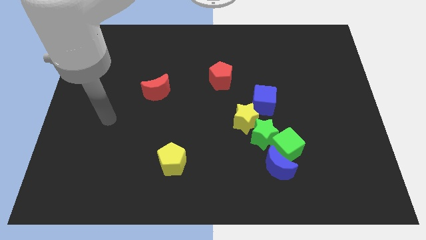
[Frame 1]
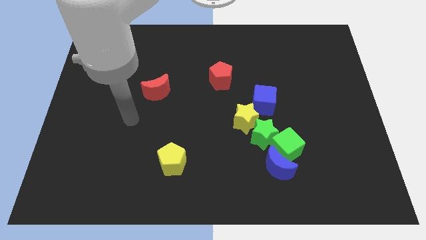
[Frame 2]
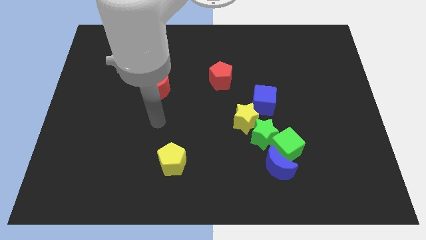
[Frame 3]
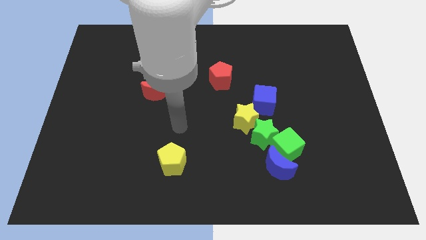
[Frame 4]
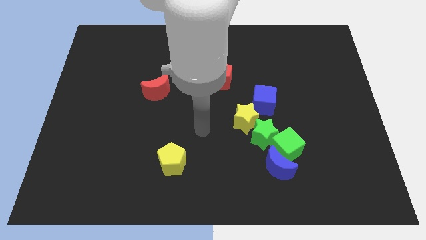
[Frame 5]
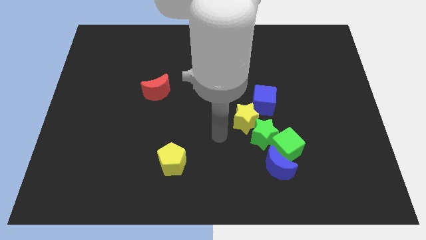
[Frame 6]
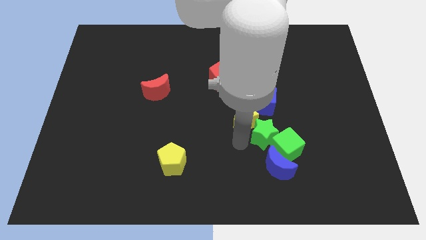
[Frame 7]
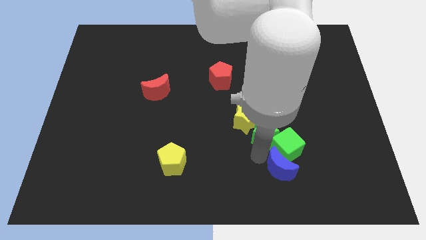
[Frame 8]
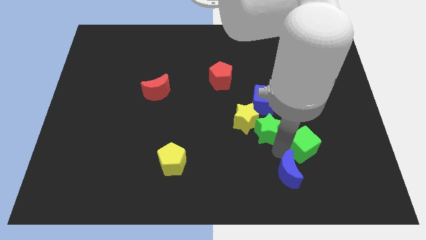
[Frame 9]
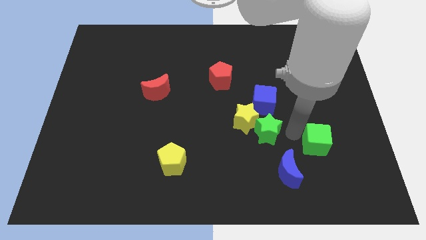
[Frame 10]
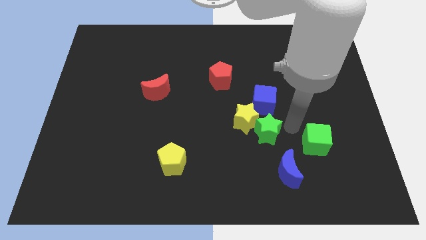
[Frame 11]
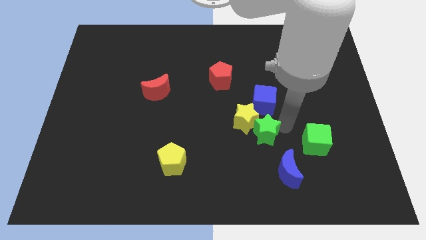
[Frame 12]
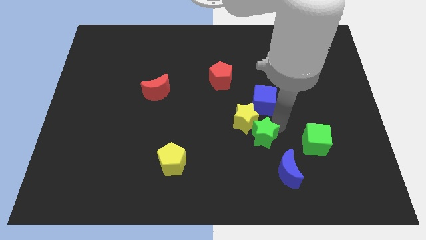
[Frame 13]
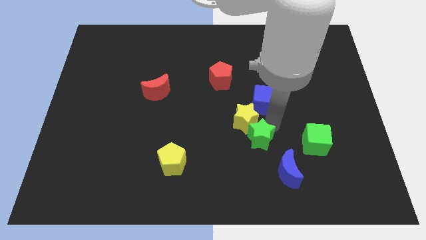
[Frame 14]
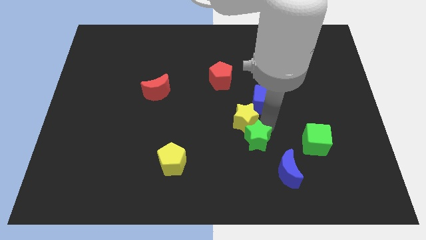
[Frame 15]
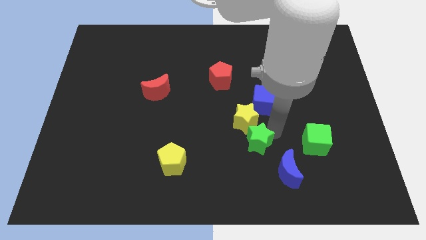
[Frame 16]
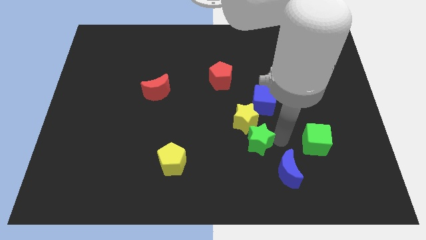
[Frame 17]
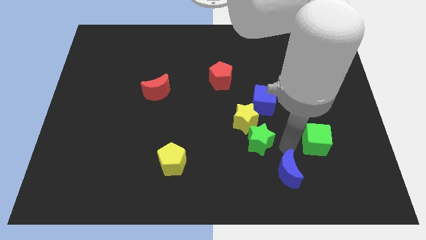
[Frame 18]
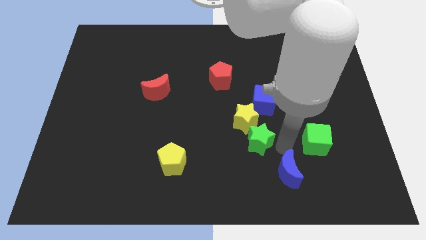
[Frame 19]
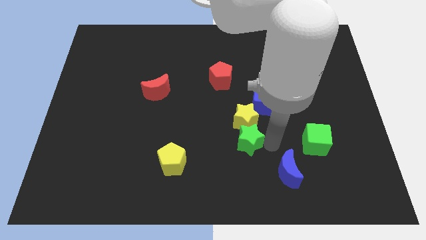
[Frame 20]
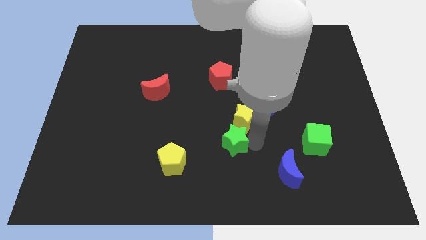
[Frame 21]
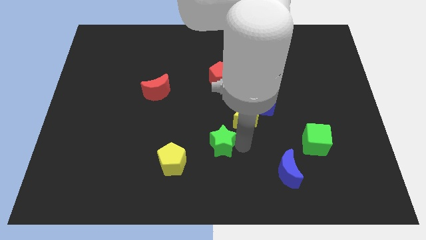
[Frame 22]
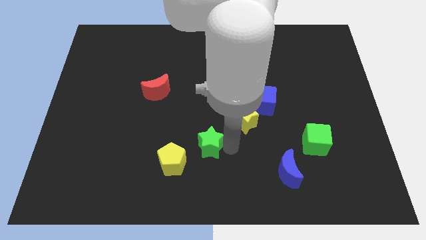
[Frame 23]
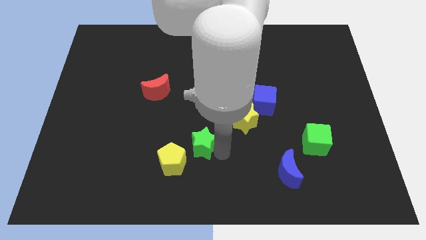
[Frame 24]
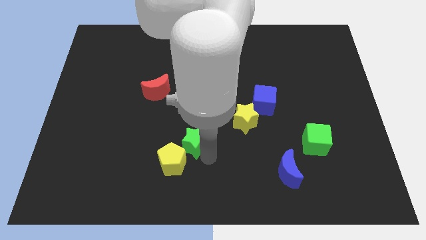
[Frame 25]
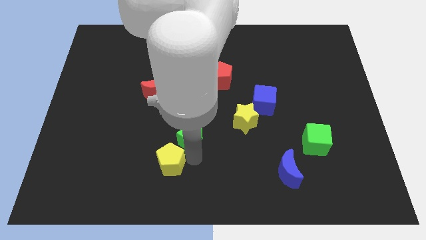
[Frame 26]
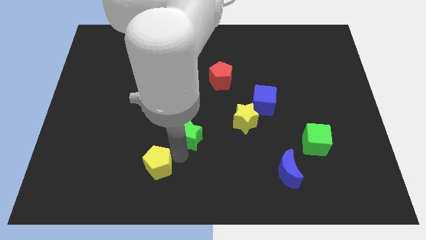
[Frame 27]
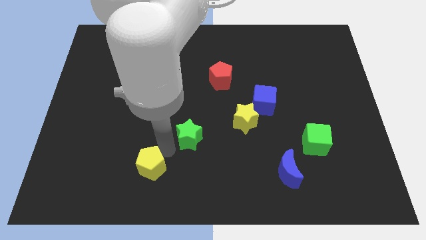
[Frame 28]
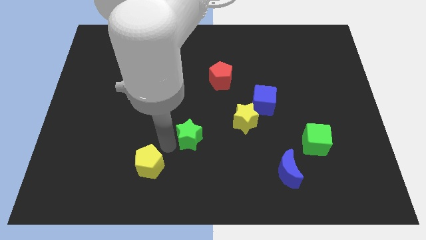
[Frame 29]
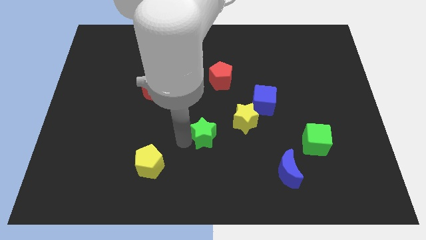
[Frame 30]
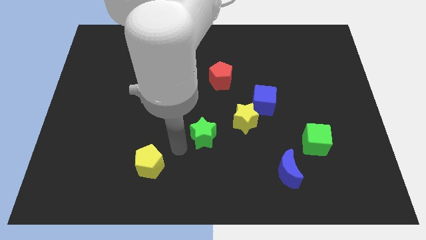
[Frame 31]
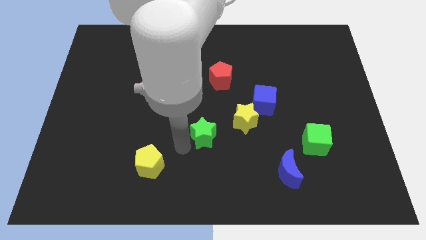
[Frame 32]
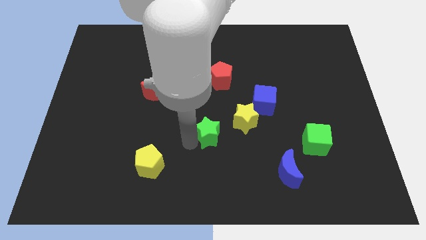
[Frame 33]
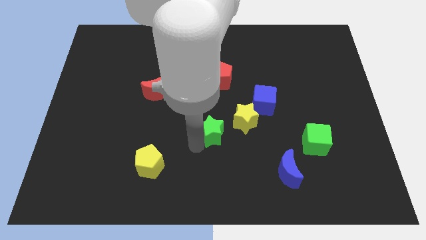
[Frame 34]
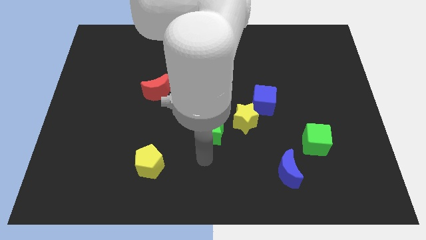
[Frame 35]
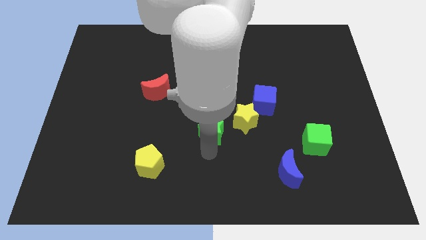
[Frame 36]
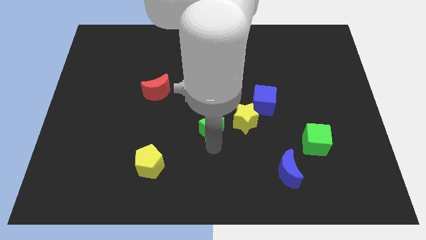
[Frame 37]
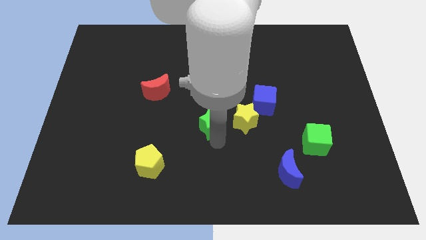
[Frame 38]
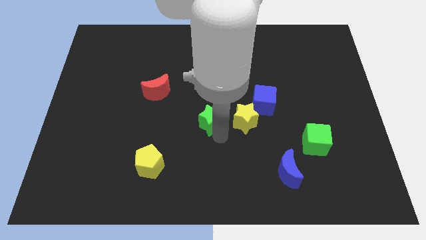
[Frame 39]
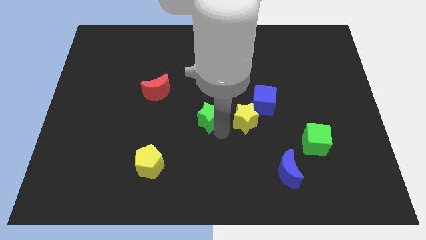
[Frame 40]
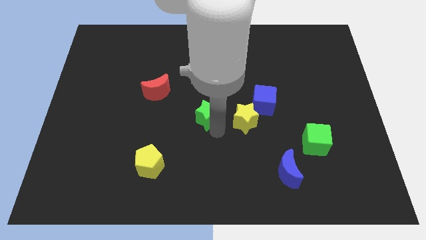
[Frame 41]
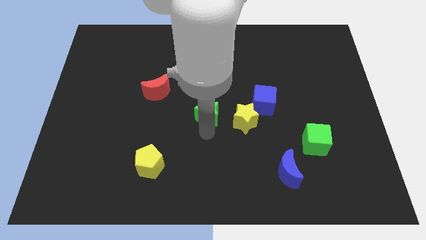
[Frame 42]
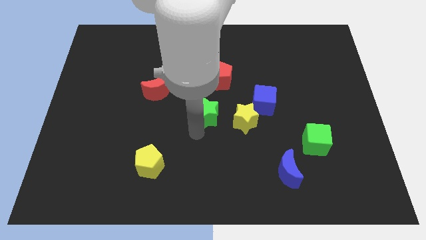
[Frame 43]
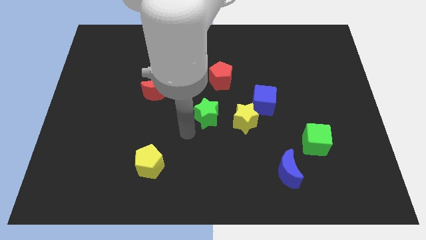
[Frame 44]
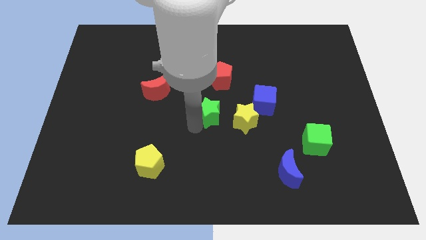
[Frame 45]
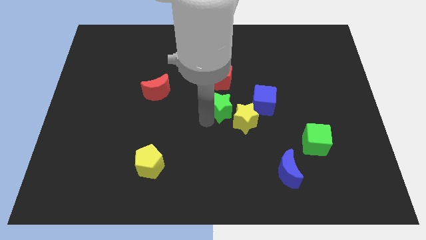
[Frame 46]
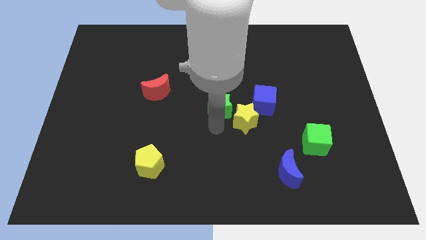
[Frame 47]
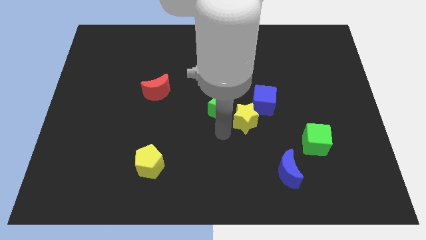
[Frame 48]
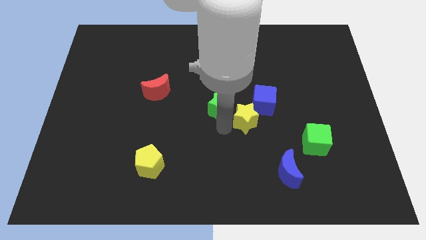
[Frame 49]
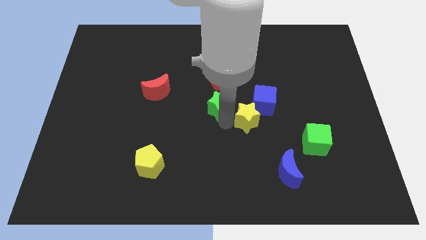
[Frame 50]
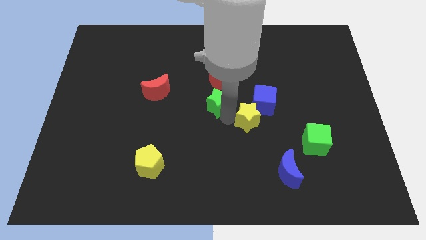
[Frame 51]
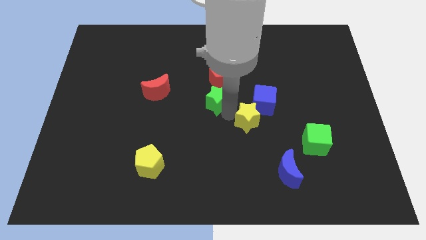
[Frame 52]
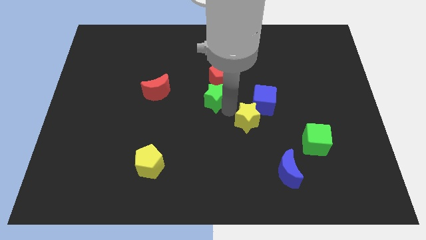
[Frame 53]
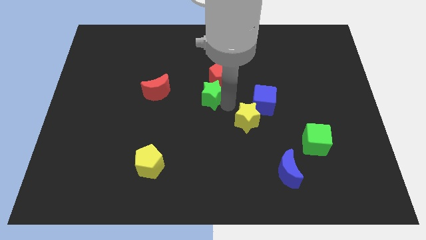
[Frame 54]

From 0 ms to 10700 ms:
slide the green star close to the red pentagon

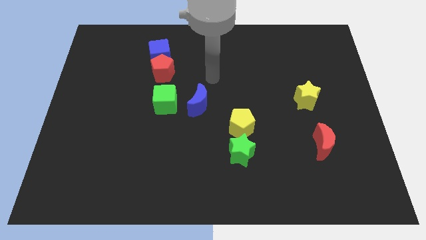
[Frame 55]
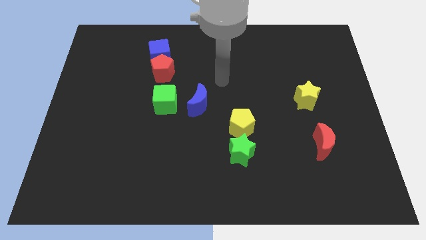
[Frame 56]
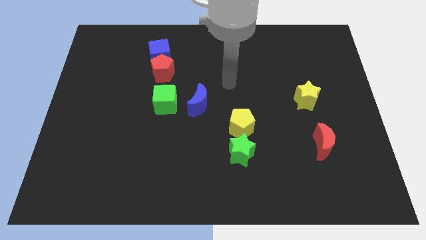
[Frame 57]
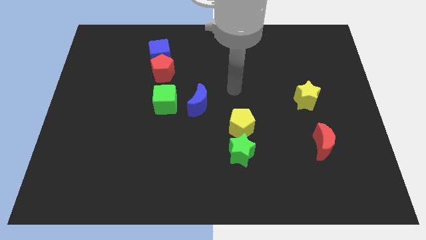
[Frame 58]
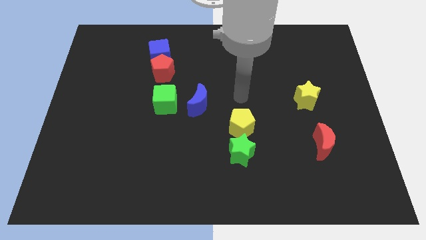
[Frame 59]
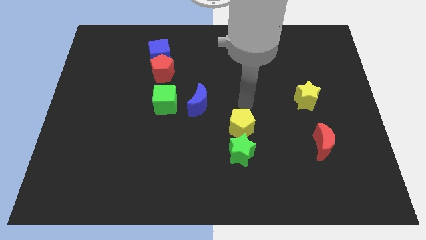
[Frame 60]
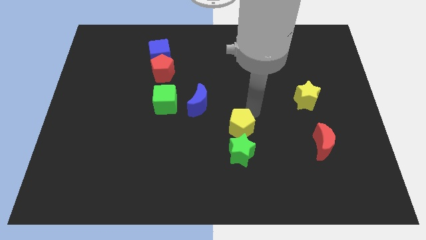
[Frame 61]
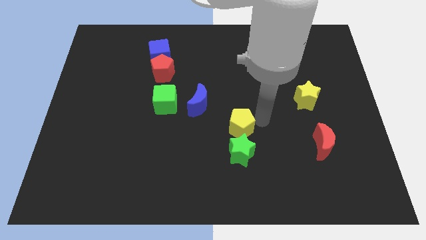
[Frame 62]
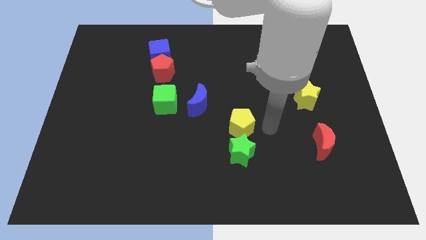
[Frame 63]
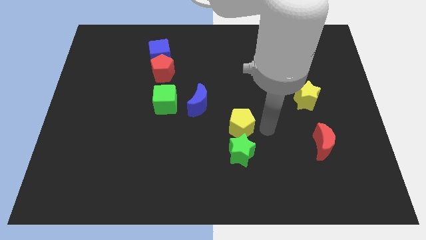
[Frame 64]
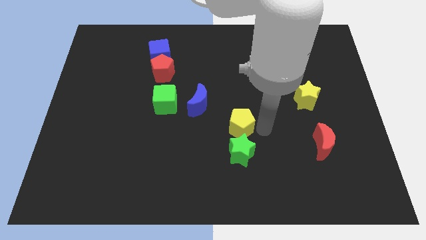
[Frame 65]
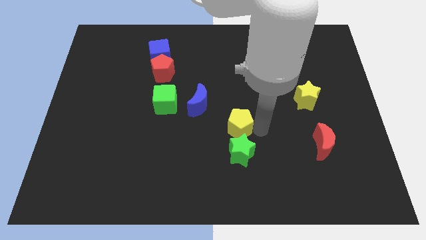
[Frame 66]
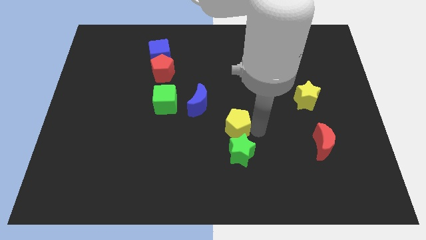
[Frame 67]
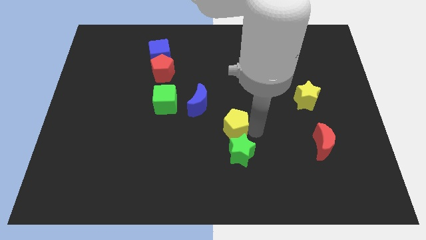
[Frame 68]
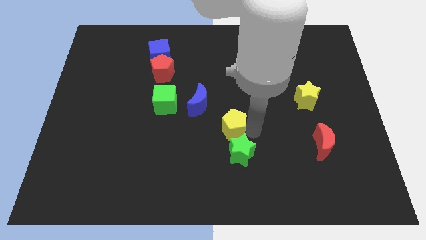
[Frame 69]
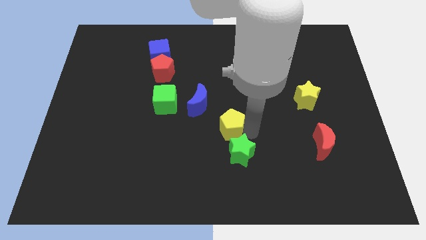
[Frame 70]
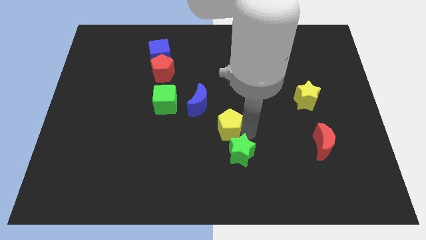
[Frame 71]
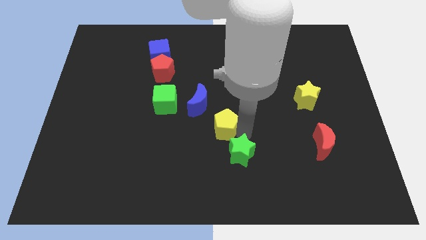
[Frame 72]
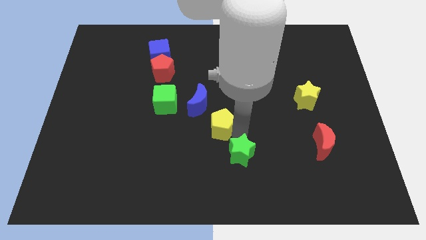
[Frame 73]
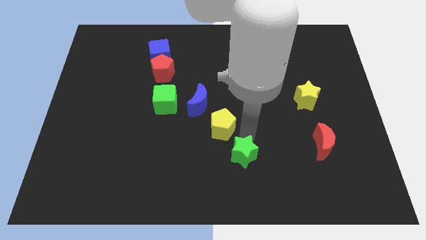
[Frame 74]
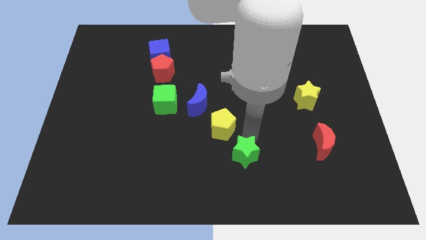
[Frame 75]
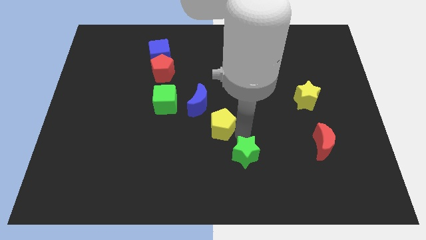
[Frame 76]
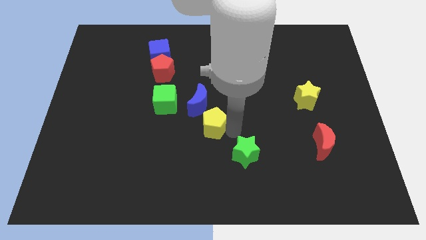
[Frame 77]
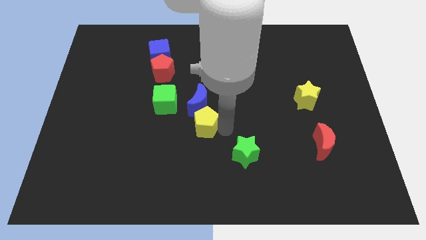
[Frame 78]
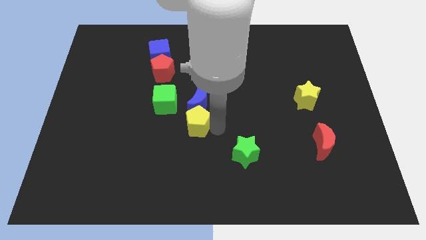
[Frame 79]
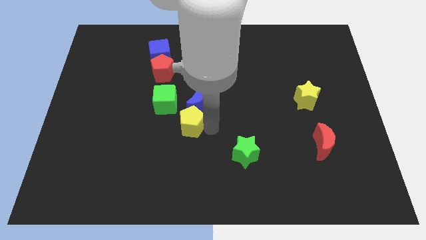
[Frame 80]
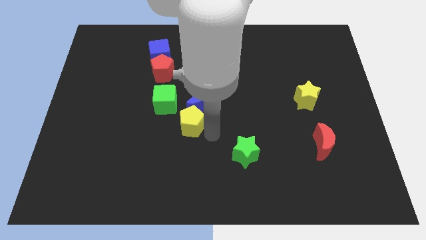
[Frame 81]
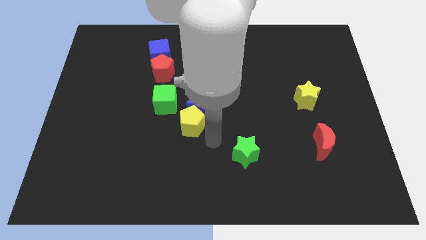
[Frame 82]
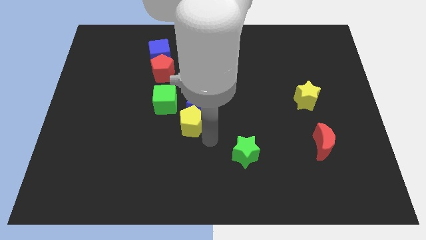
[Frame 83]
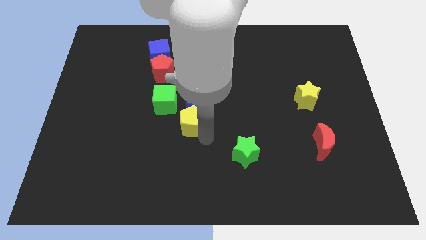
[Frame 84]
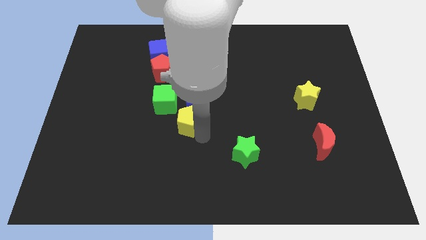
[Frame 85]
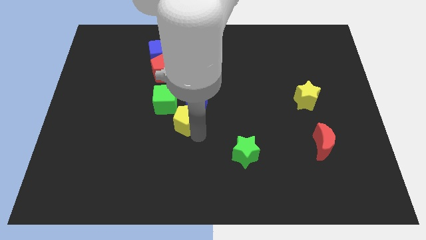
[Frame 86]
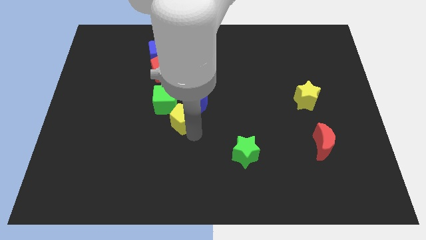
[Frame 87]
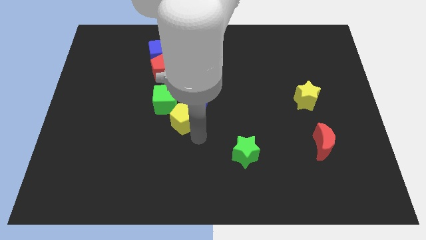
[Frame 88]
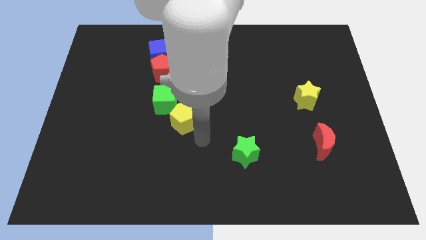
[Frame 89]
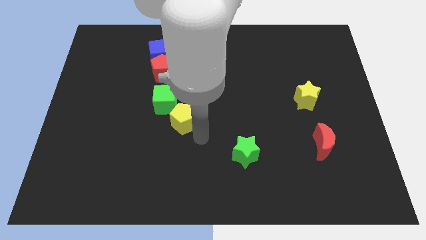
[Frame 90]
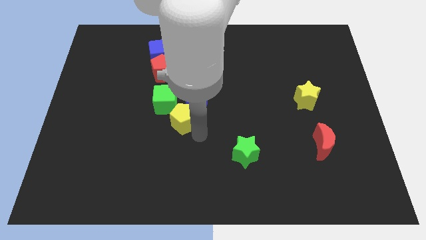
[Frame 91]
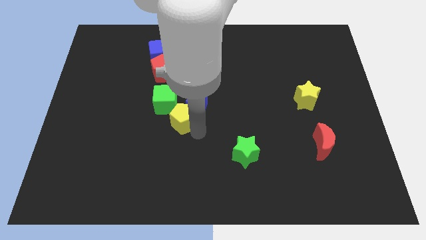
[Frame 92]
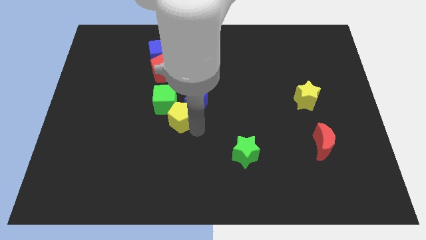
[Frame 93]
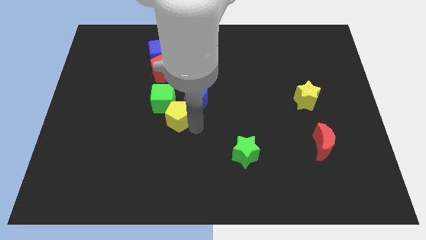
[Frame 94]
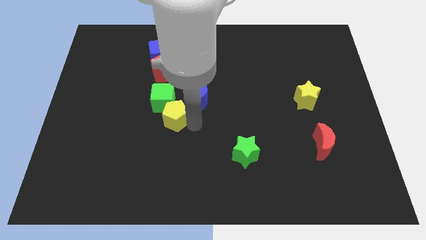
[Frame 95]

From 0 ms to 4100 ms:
put the yellow pentagon next to the green cube
